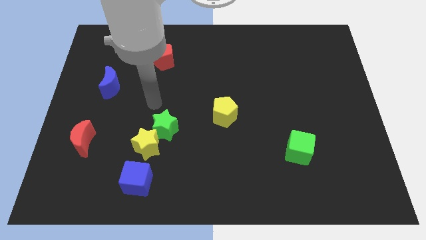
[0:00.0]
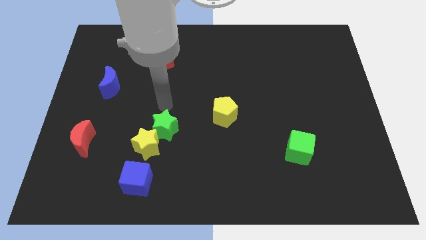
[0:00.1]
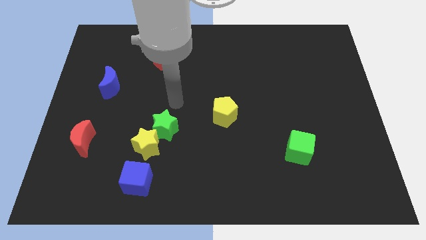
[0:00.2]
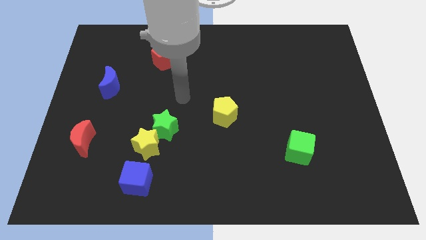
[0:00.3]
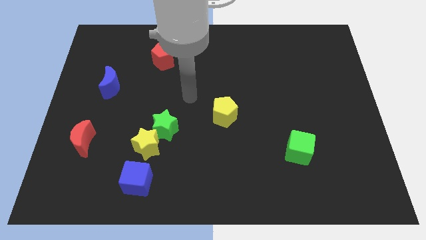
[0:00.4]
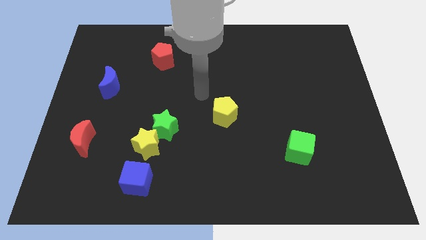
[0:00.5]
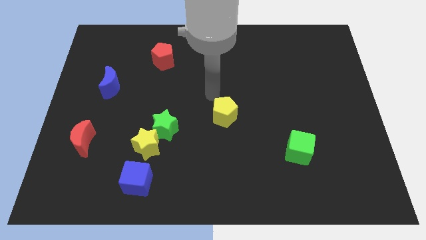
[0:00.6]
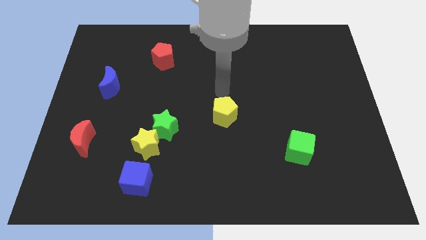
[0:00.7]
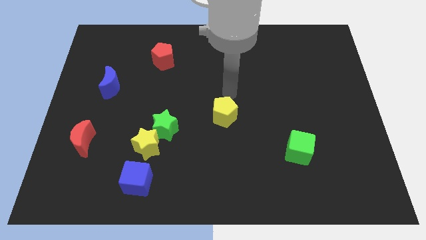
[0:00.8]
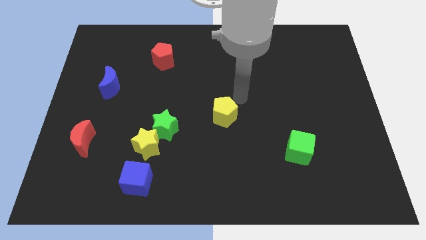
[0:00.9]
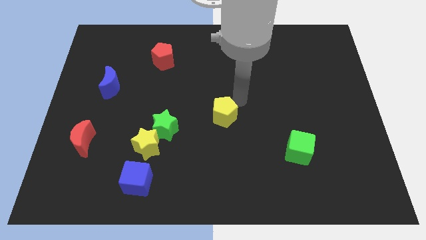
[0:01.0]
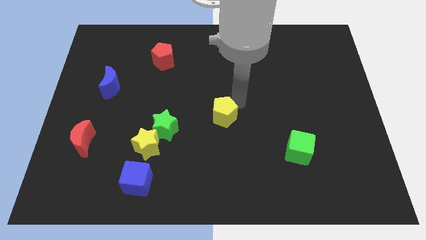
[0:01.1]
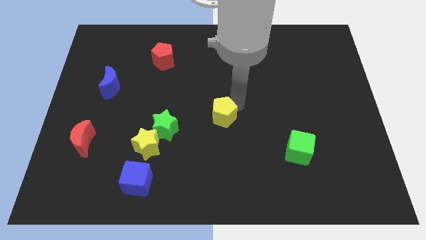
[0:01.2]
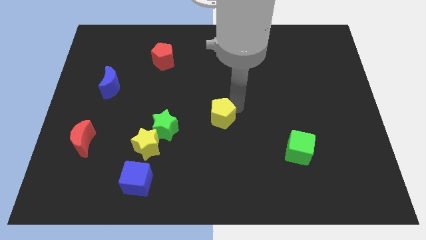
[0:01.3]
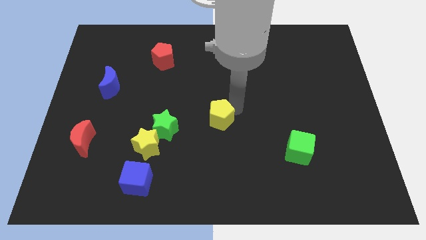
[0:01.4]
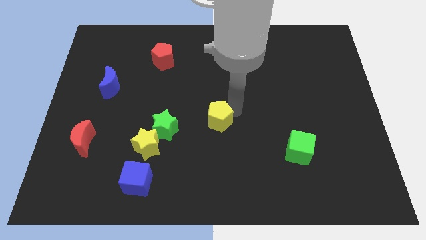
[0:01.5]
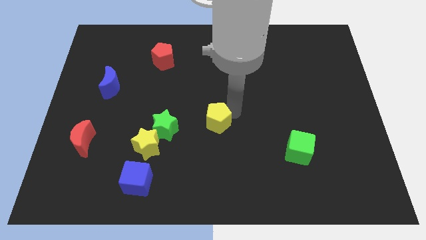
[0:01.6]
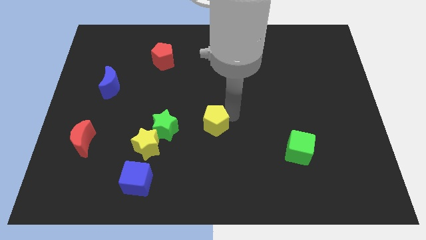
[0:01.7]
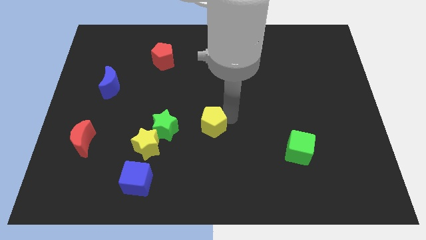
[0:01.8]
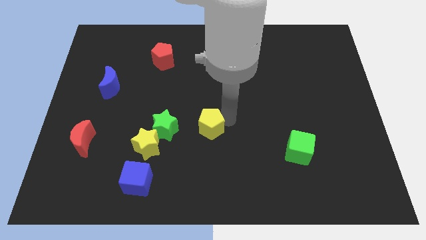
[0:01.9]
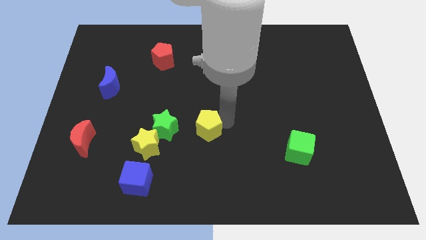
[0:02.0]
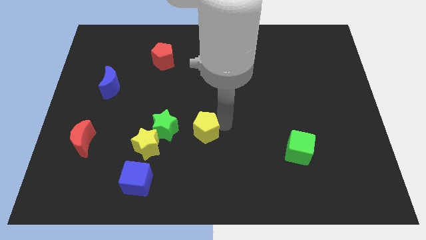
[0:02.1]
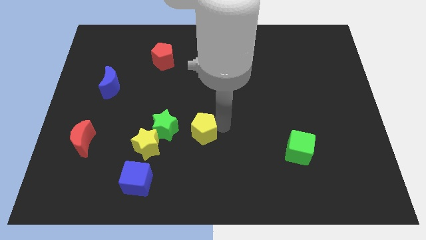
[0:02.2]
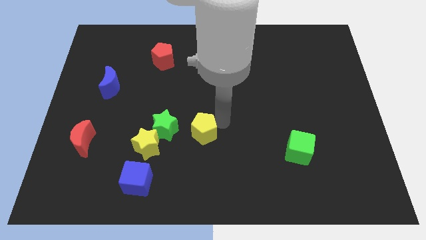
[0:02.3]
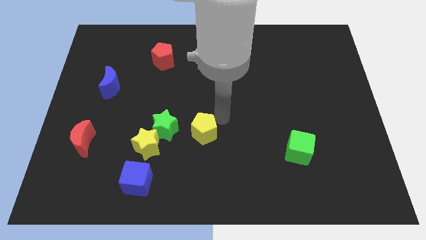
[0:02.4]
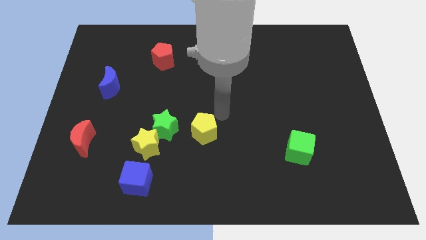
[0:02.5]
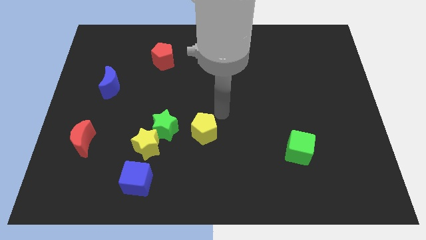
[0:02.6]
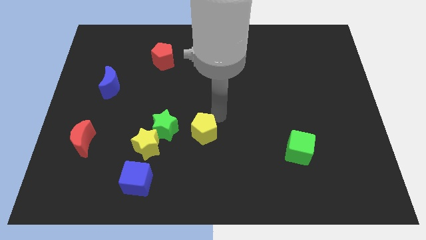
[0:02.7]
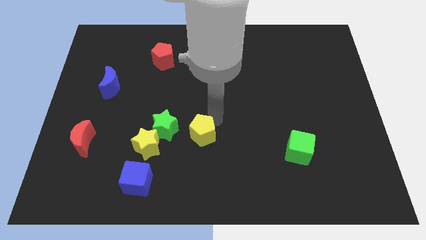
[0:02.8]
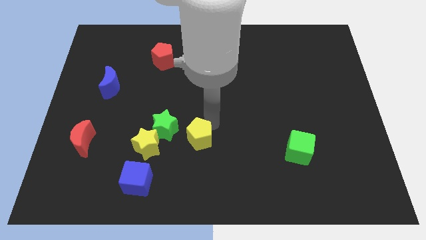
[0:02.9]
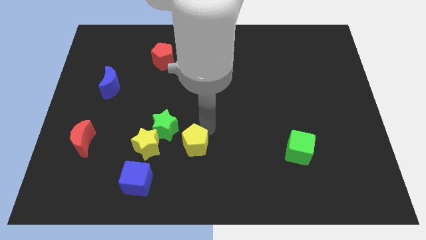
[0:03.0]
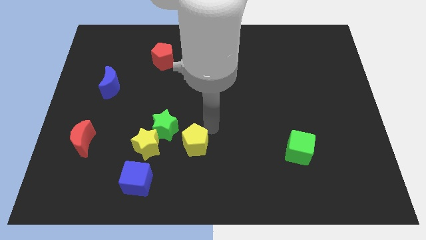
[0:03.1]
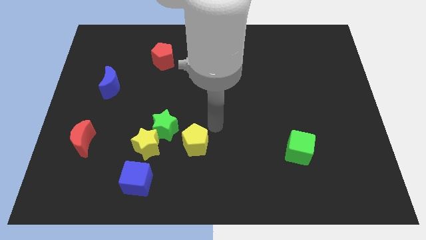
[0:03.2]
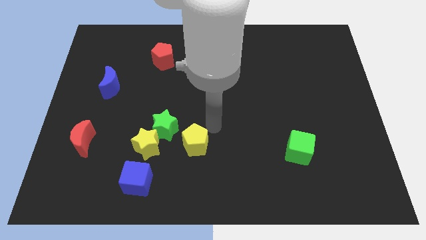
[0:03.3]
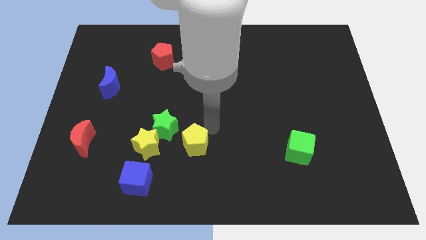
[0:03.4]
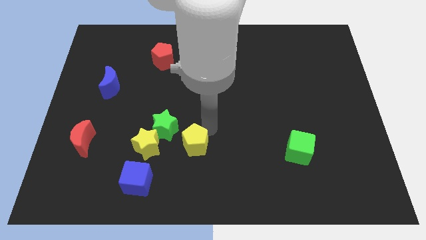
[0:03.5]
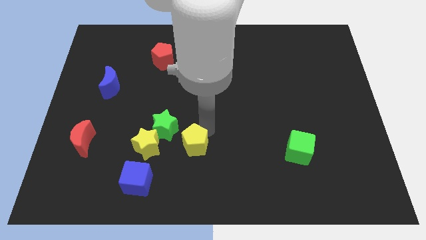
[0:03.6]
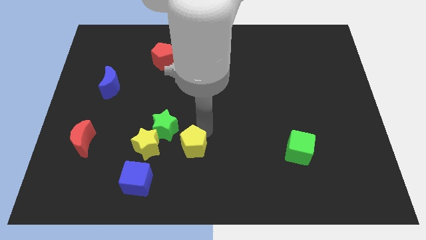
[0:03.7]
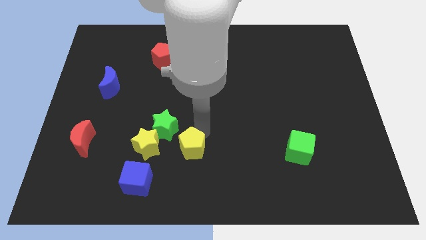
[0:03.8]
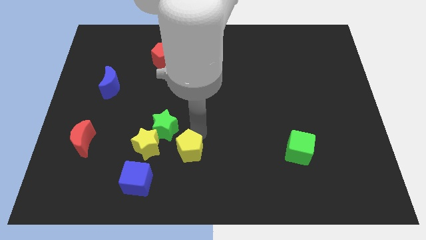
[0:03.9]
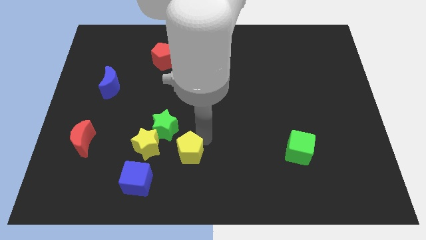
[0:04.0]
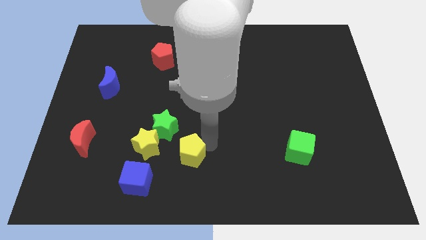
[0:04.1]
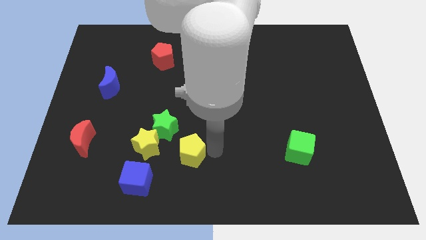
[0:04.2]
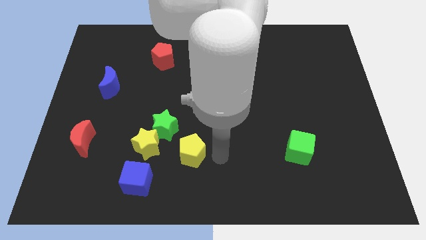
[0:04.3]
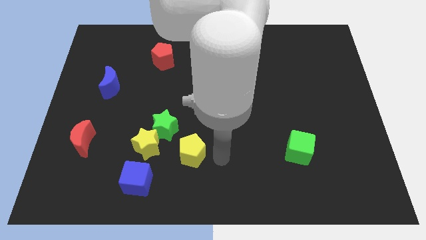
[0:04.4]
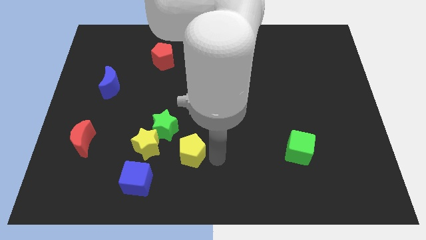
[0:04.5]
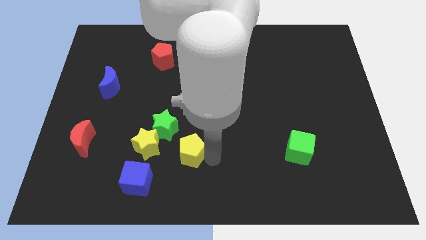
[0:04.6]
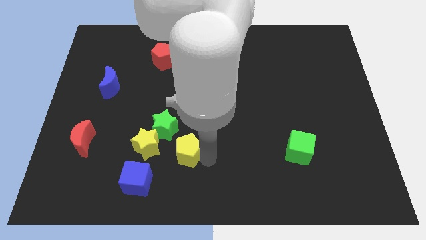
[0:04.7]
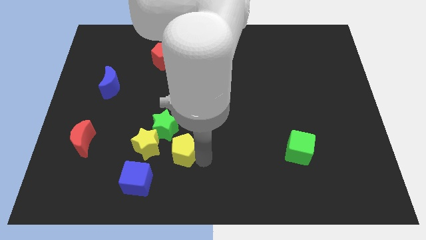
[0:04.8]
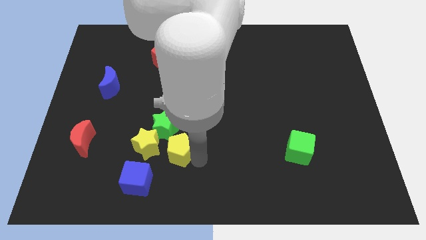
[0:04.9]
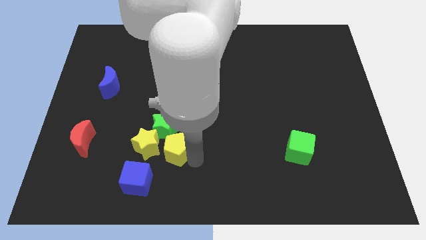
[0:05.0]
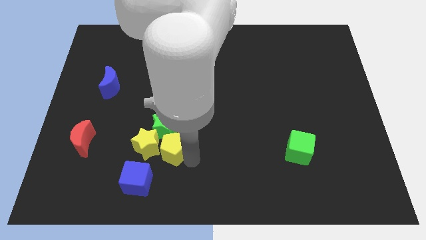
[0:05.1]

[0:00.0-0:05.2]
slide the yellow pentagon towards the yellow star

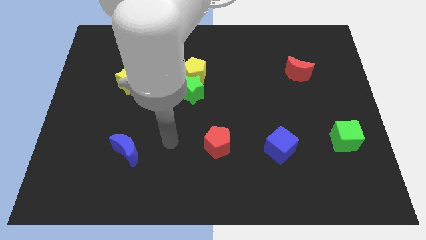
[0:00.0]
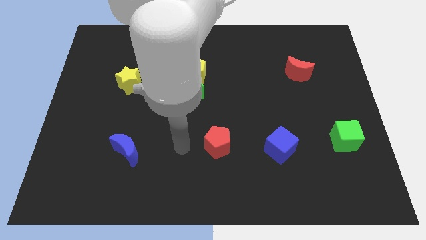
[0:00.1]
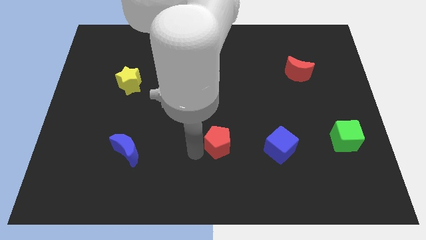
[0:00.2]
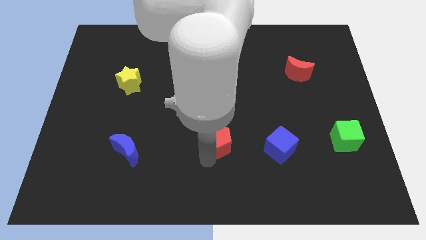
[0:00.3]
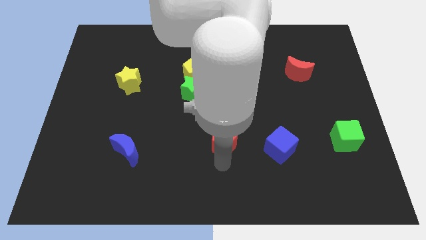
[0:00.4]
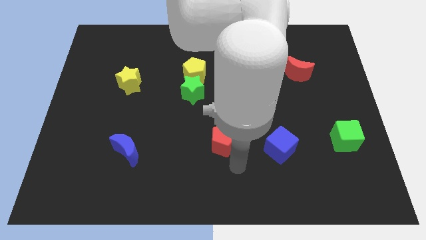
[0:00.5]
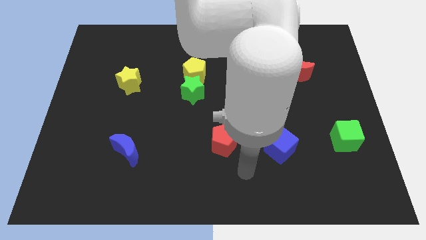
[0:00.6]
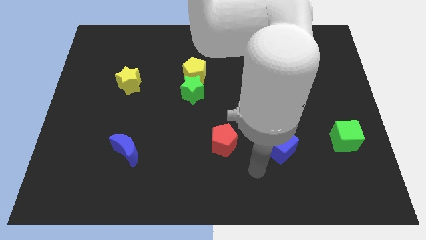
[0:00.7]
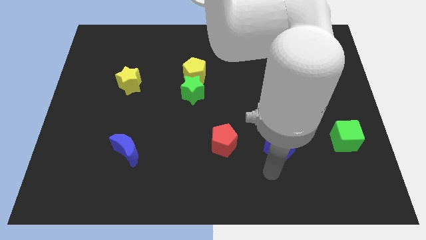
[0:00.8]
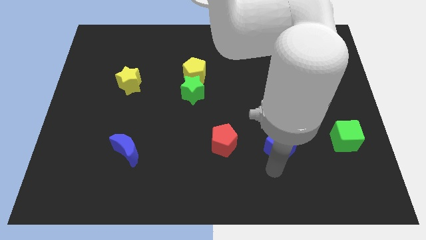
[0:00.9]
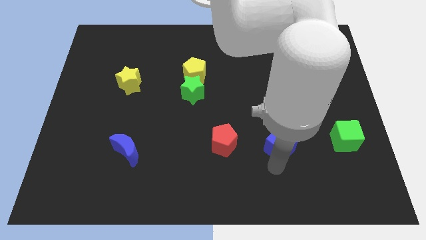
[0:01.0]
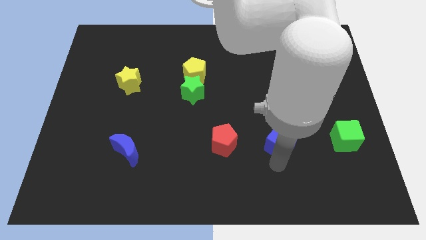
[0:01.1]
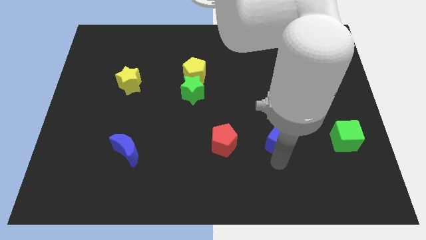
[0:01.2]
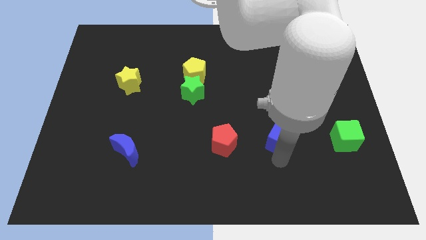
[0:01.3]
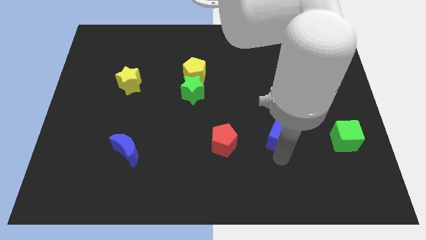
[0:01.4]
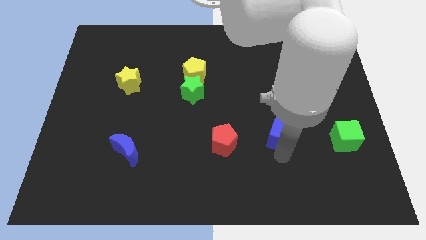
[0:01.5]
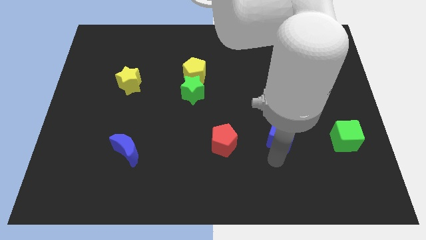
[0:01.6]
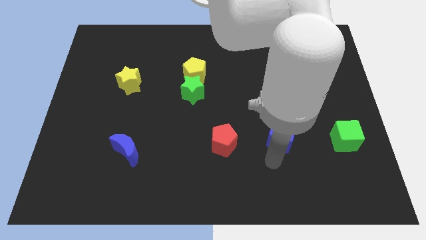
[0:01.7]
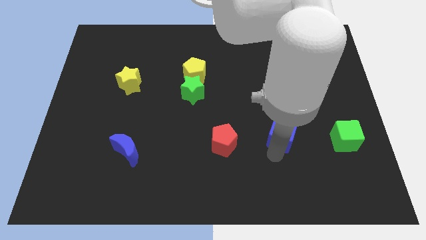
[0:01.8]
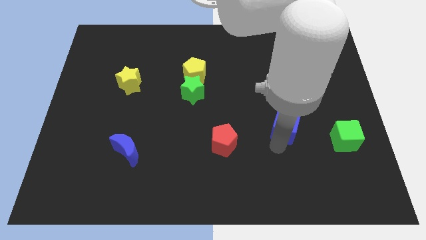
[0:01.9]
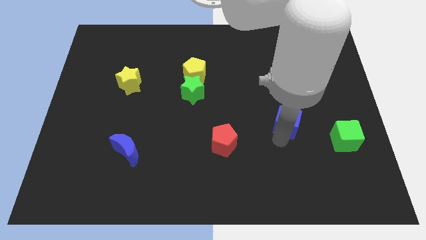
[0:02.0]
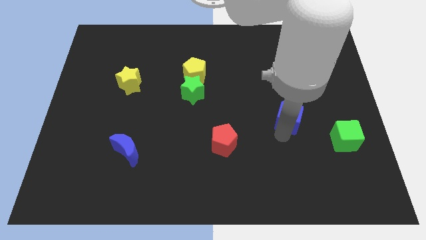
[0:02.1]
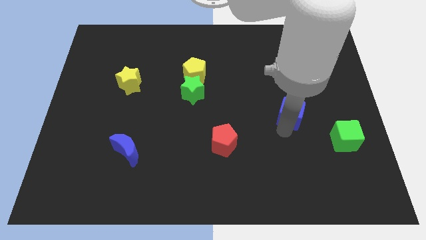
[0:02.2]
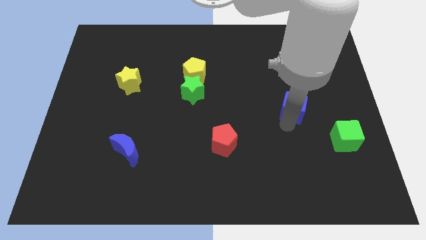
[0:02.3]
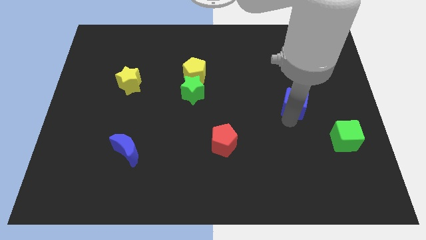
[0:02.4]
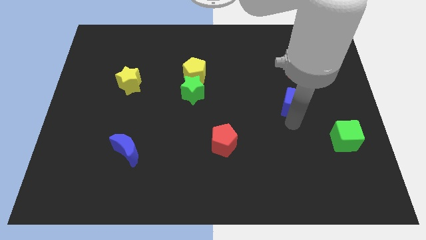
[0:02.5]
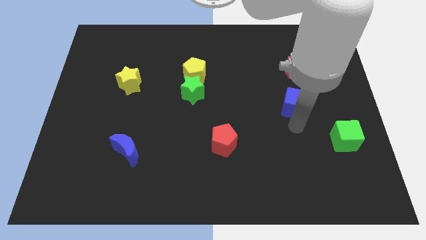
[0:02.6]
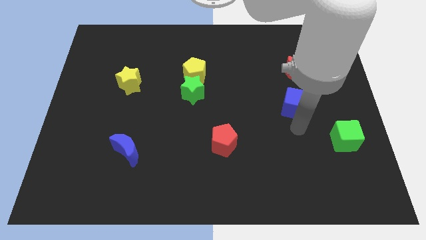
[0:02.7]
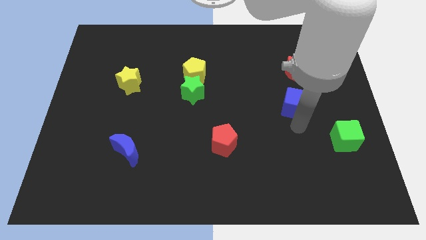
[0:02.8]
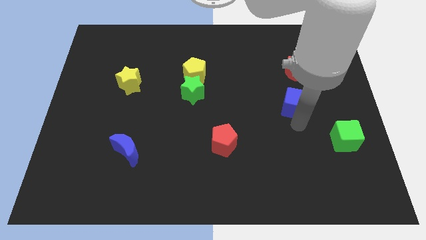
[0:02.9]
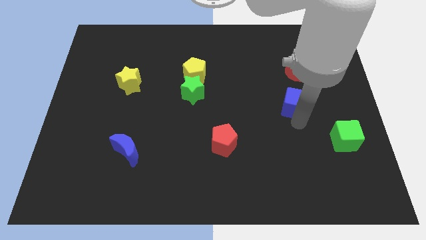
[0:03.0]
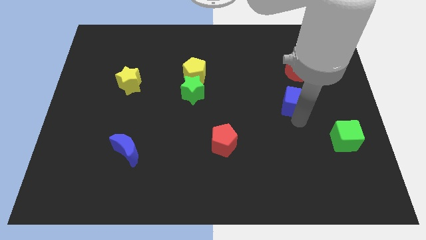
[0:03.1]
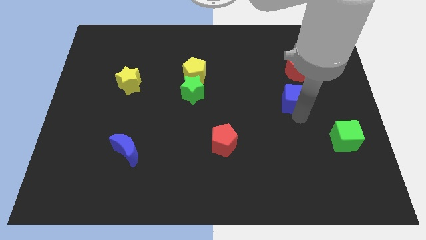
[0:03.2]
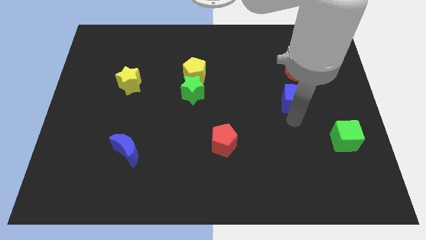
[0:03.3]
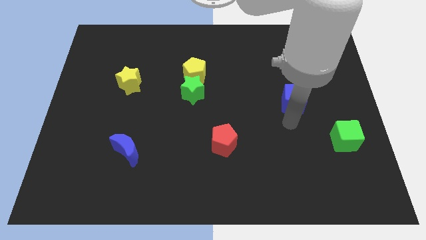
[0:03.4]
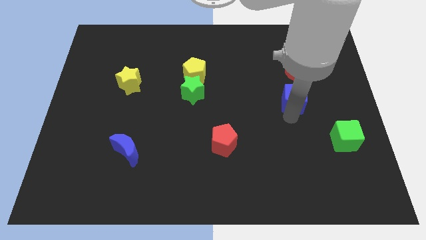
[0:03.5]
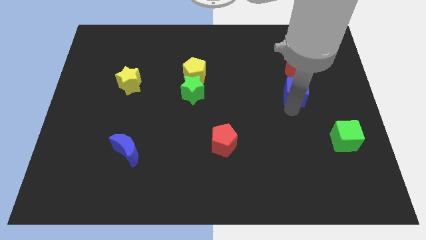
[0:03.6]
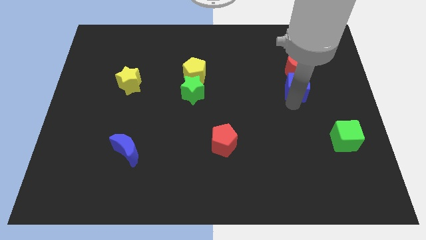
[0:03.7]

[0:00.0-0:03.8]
move the blue cube next to the red moon
